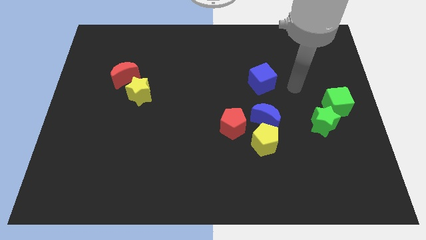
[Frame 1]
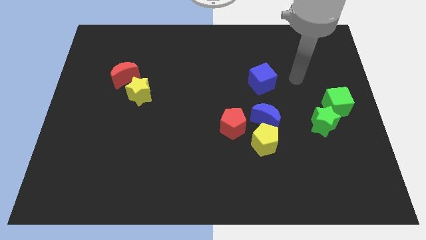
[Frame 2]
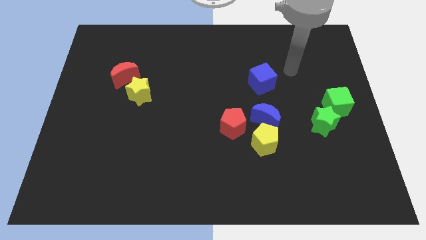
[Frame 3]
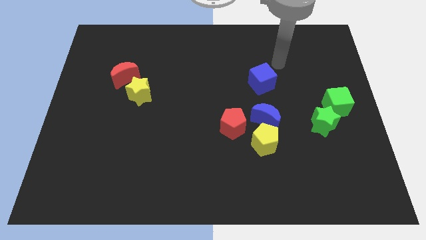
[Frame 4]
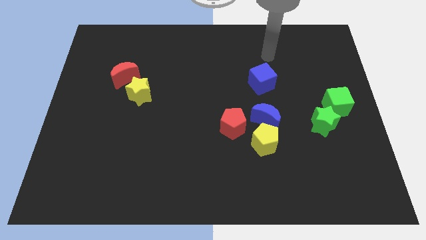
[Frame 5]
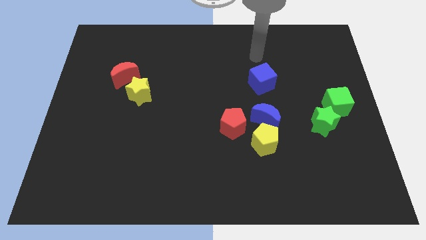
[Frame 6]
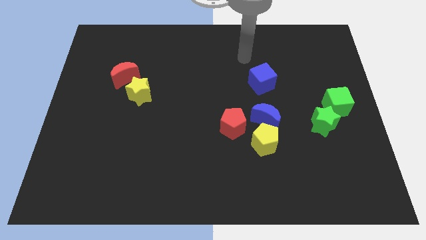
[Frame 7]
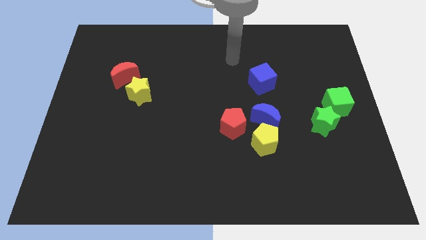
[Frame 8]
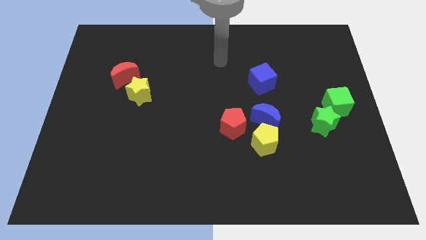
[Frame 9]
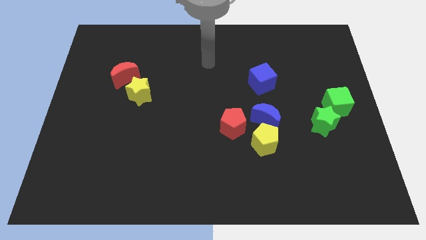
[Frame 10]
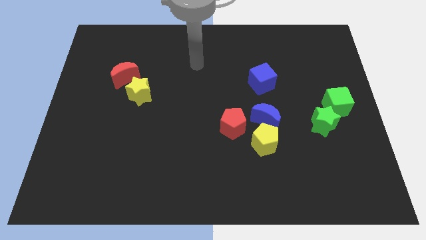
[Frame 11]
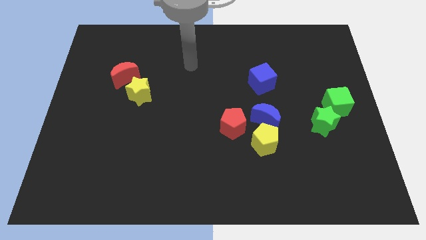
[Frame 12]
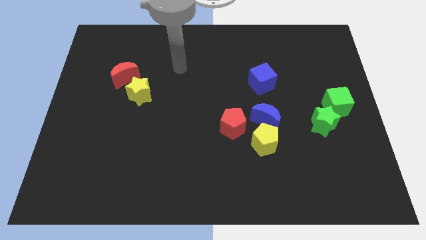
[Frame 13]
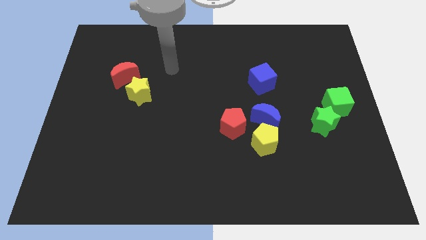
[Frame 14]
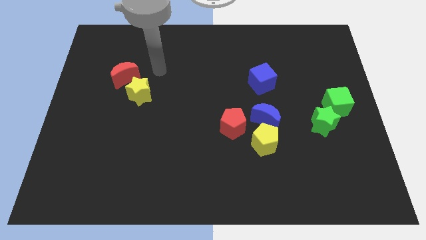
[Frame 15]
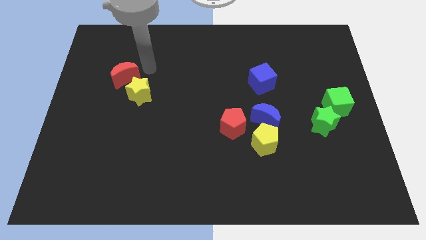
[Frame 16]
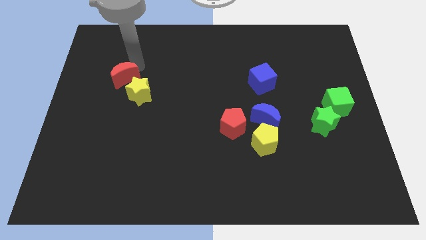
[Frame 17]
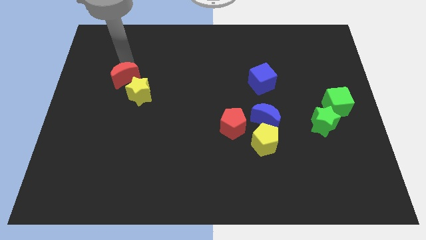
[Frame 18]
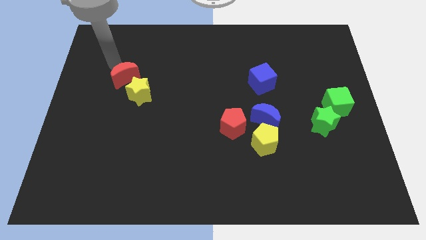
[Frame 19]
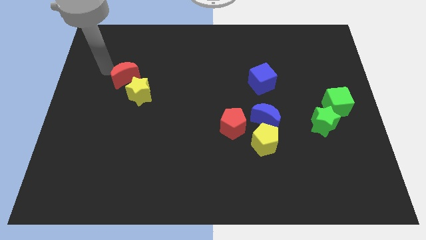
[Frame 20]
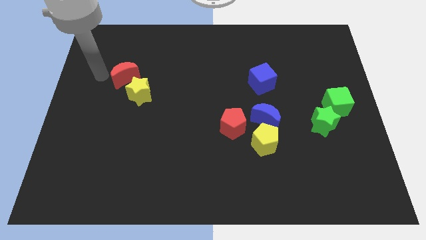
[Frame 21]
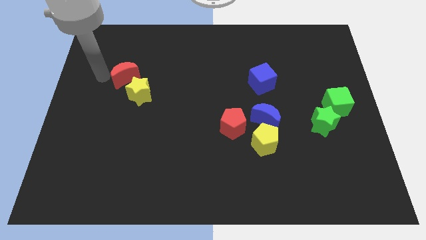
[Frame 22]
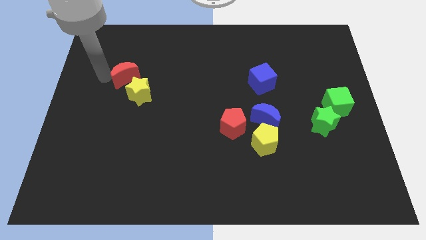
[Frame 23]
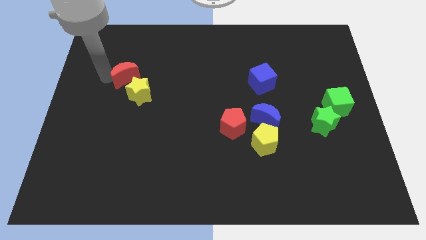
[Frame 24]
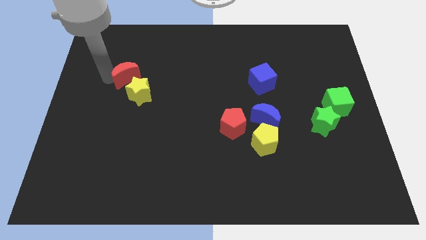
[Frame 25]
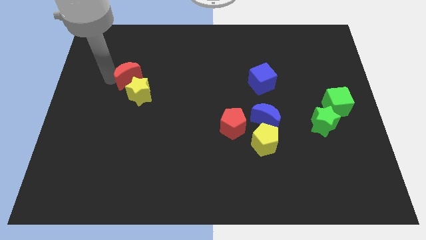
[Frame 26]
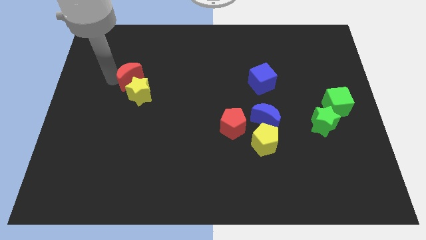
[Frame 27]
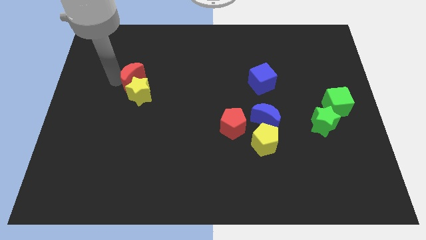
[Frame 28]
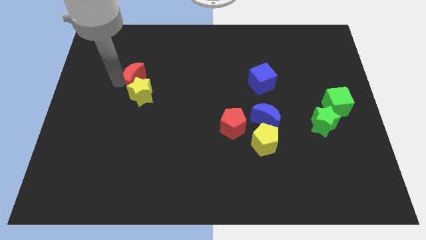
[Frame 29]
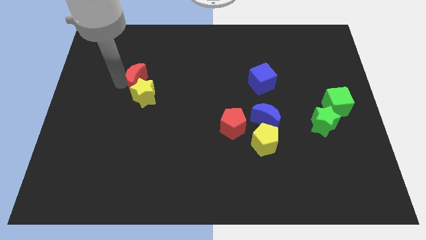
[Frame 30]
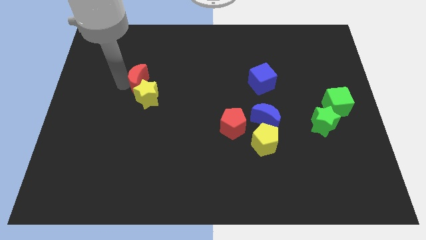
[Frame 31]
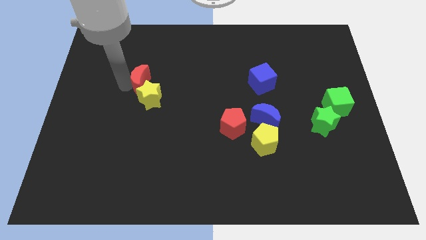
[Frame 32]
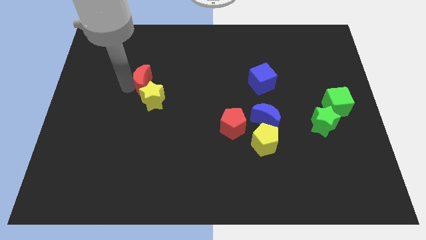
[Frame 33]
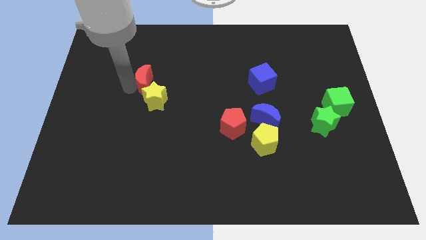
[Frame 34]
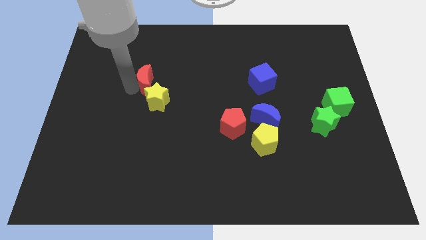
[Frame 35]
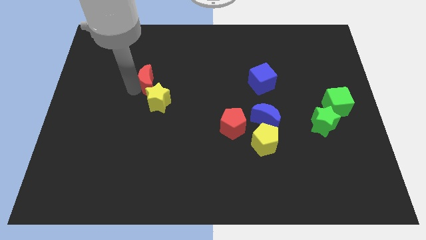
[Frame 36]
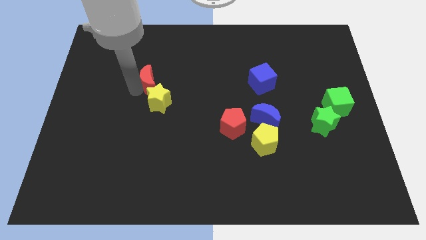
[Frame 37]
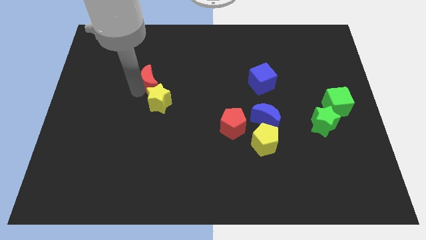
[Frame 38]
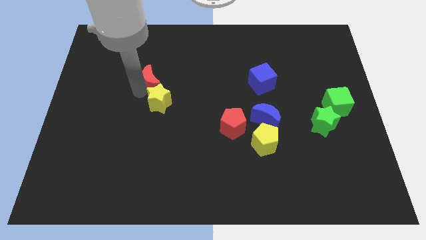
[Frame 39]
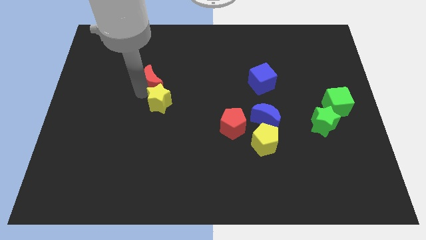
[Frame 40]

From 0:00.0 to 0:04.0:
slightly slide the red moon to the right

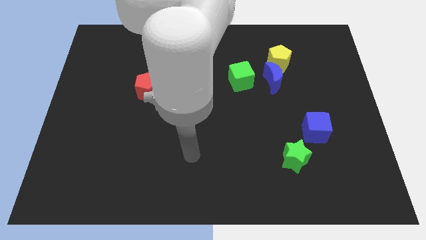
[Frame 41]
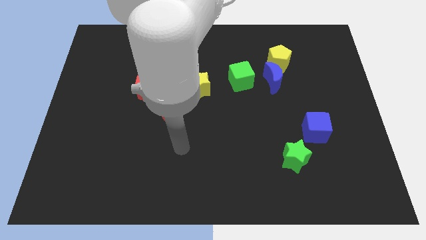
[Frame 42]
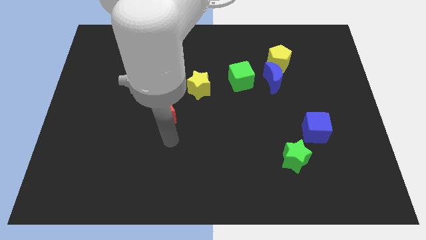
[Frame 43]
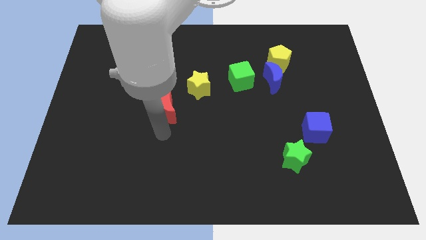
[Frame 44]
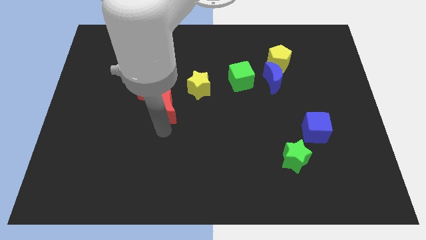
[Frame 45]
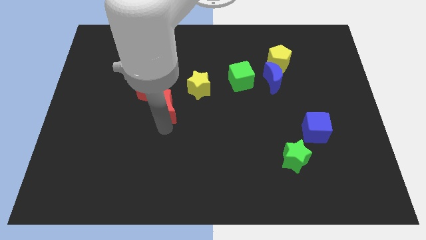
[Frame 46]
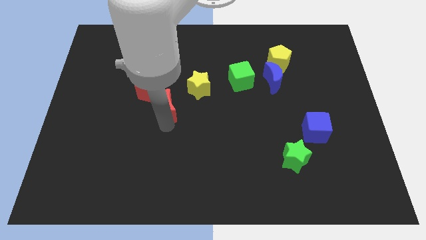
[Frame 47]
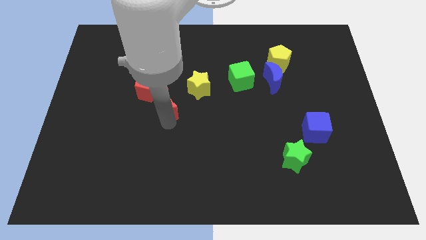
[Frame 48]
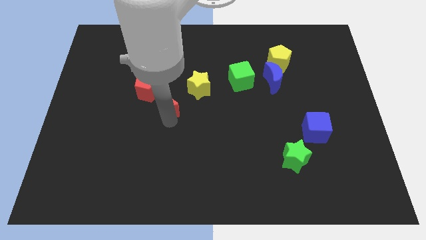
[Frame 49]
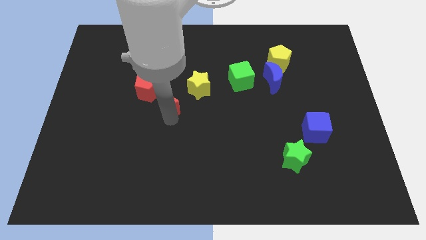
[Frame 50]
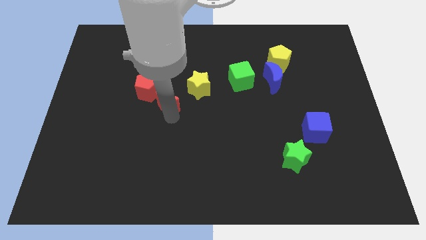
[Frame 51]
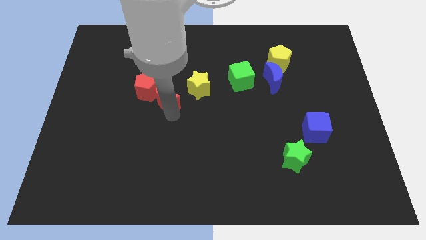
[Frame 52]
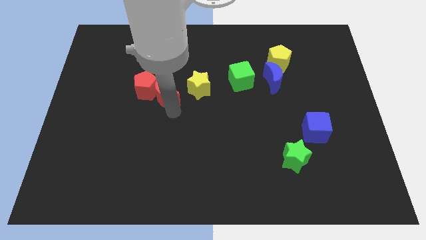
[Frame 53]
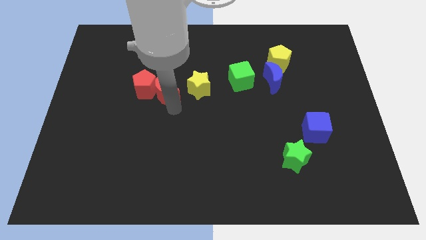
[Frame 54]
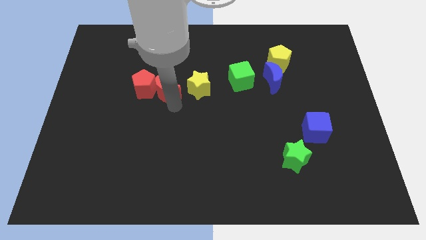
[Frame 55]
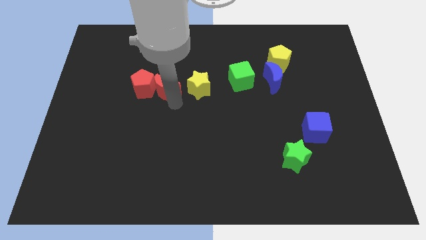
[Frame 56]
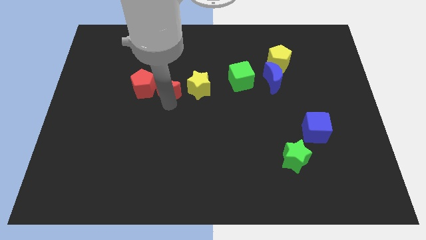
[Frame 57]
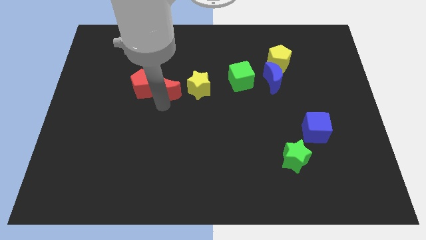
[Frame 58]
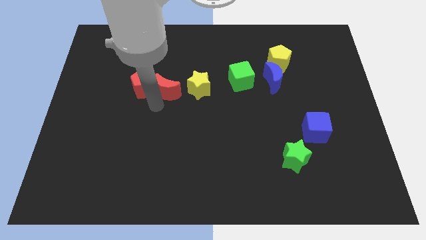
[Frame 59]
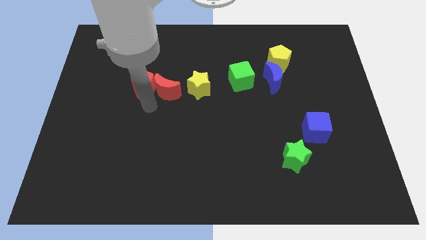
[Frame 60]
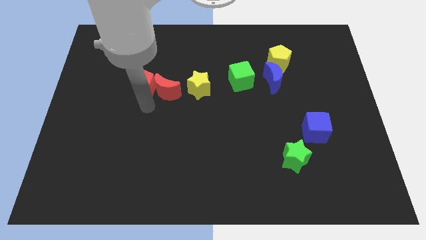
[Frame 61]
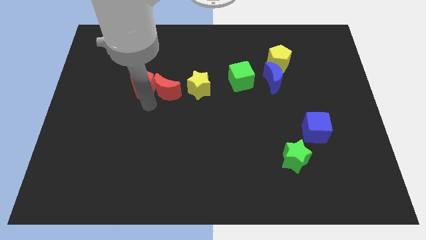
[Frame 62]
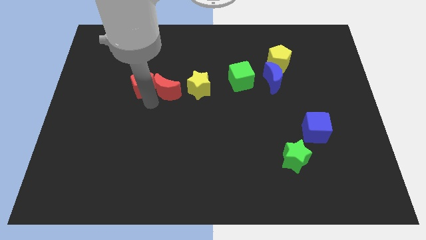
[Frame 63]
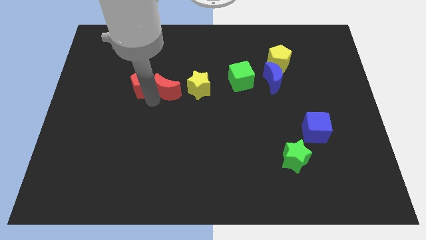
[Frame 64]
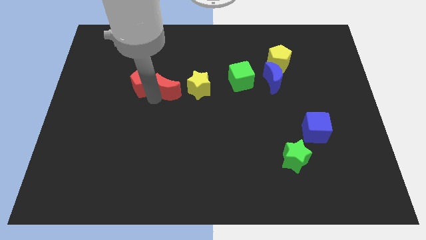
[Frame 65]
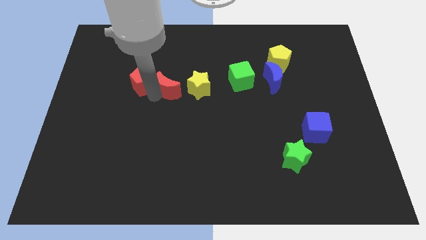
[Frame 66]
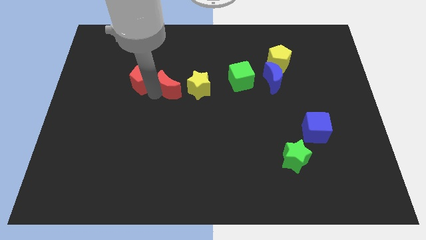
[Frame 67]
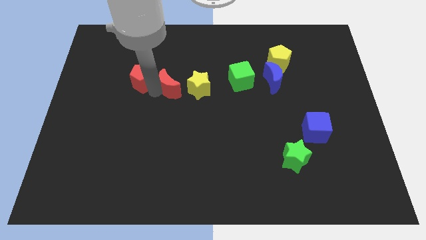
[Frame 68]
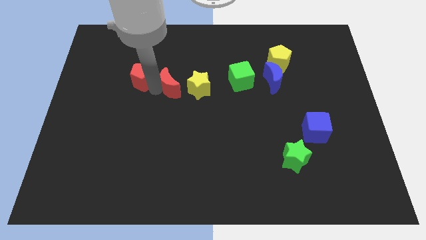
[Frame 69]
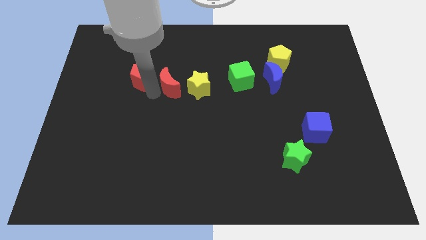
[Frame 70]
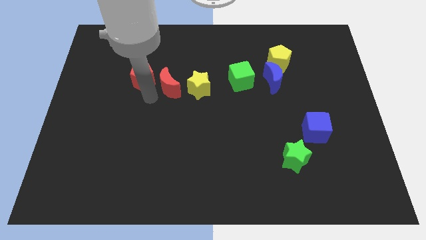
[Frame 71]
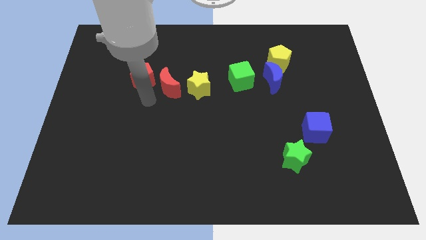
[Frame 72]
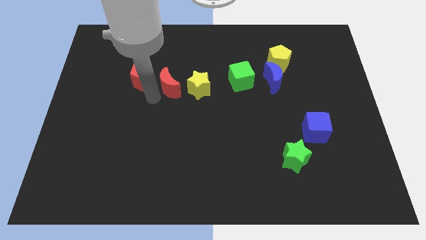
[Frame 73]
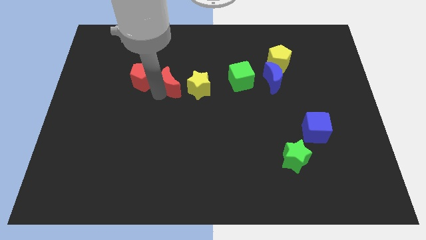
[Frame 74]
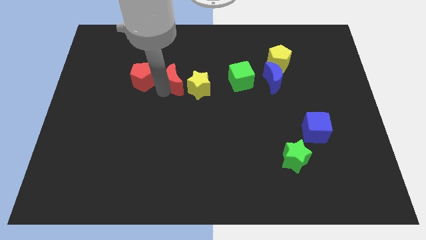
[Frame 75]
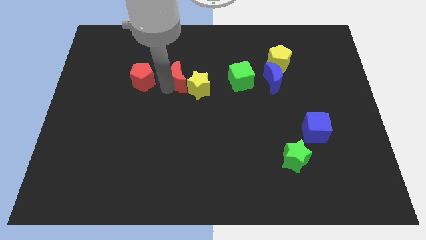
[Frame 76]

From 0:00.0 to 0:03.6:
push the red moon upwards and right diagonally slightly
